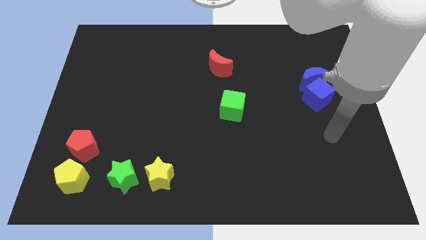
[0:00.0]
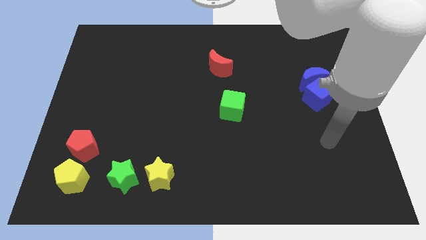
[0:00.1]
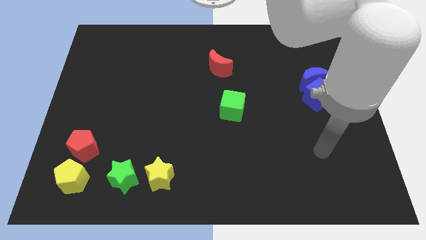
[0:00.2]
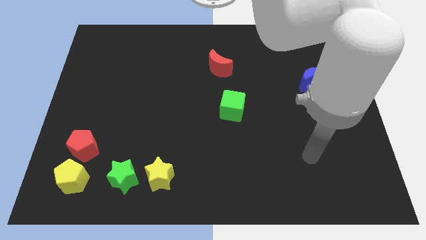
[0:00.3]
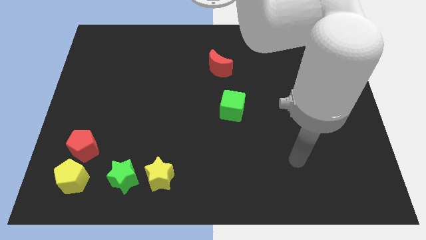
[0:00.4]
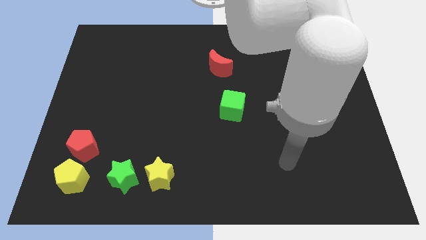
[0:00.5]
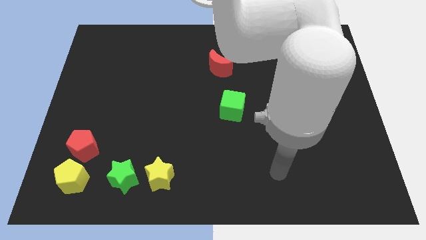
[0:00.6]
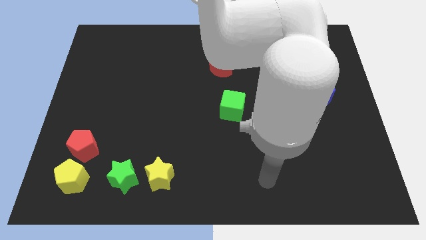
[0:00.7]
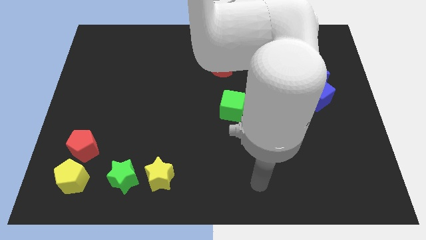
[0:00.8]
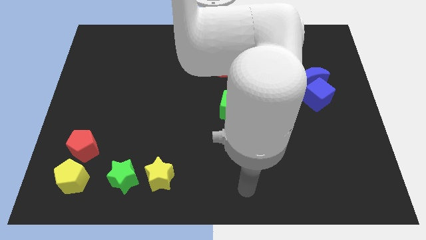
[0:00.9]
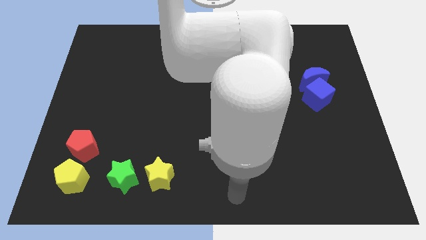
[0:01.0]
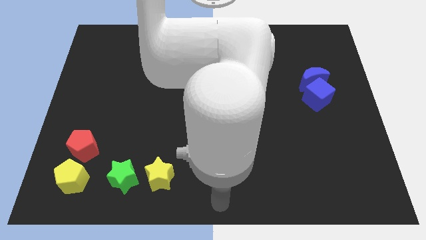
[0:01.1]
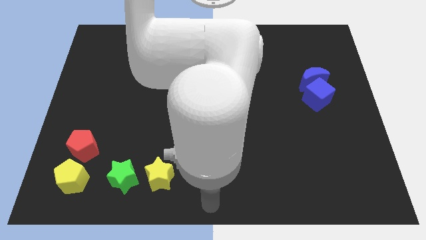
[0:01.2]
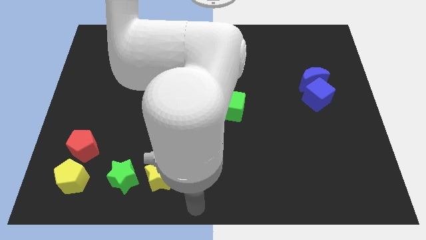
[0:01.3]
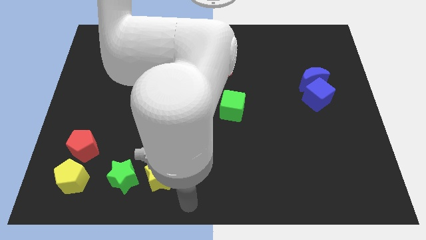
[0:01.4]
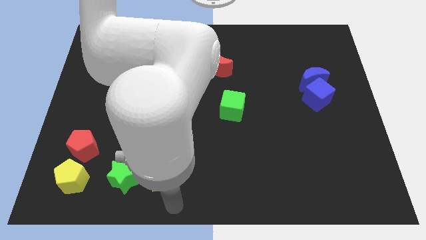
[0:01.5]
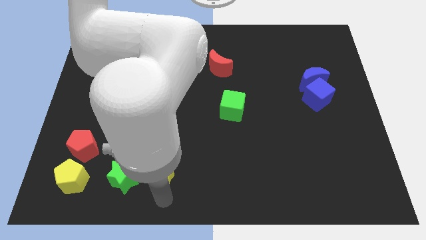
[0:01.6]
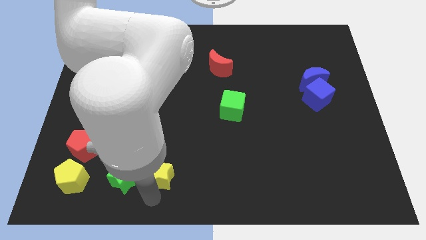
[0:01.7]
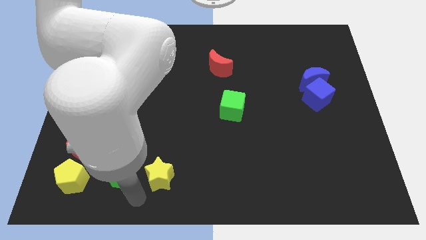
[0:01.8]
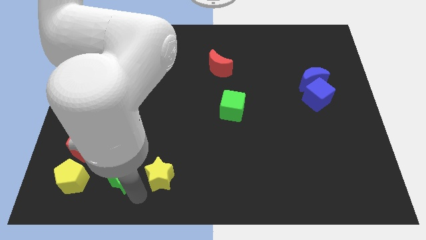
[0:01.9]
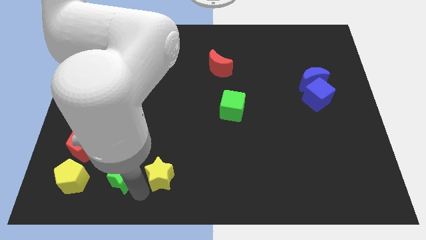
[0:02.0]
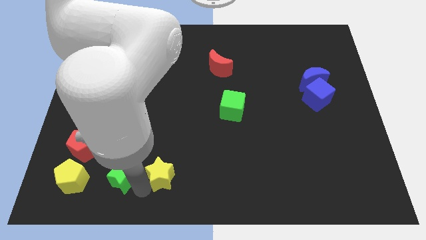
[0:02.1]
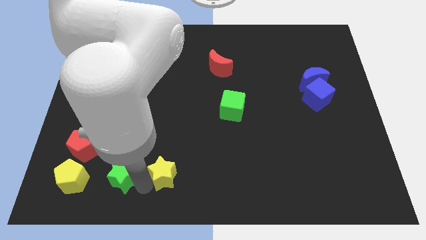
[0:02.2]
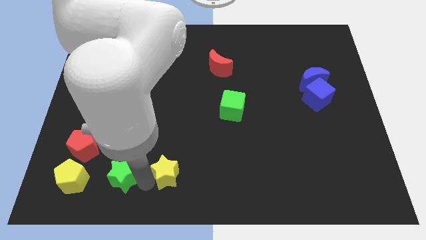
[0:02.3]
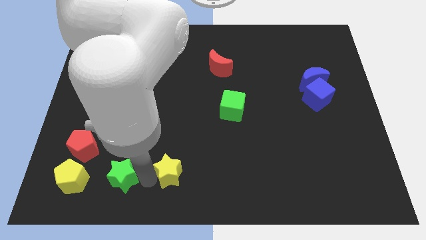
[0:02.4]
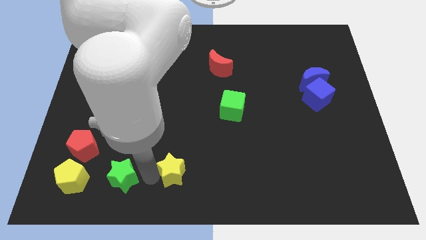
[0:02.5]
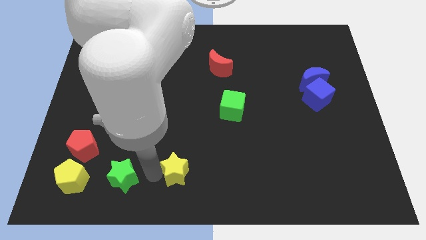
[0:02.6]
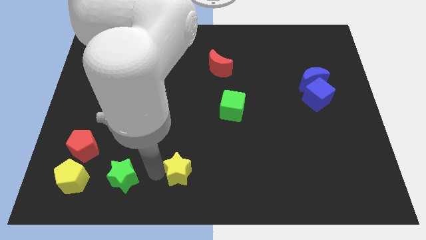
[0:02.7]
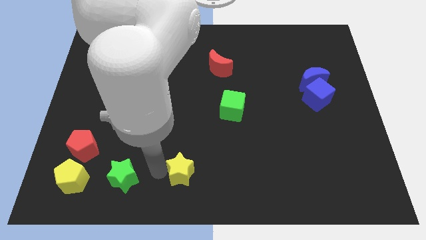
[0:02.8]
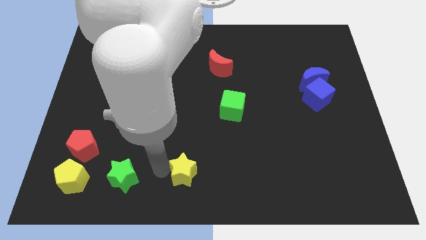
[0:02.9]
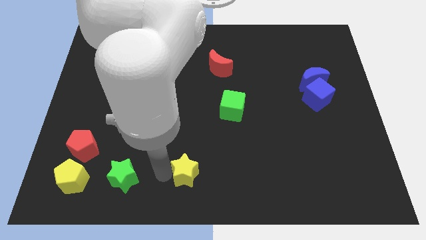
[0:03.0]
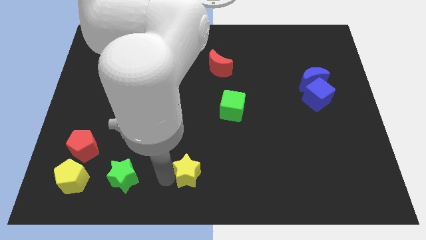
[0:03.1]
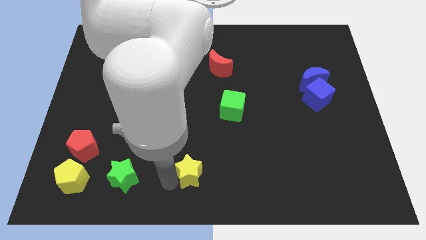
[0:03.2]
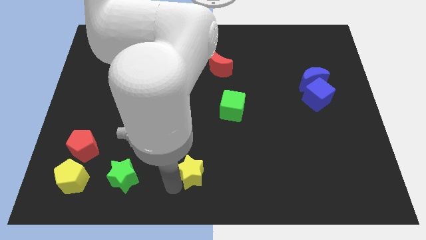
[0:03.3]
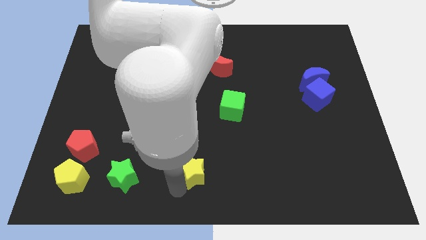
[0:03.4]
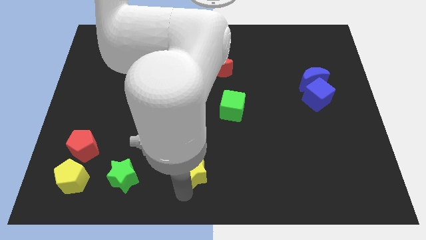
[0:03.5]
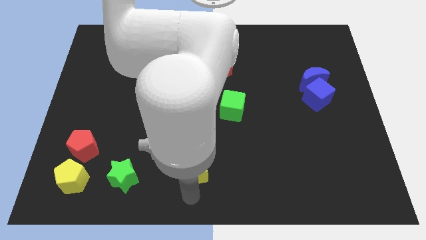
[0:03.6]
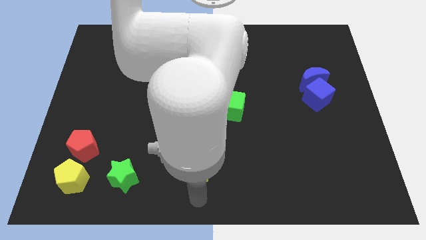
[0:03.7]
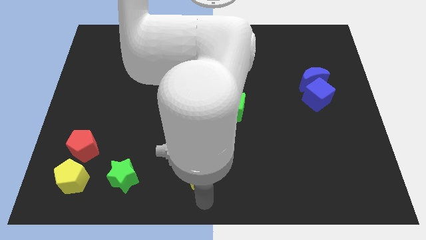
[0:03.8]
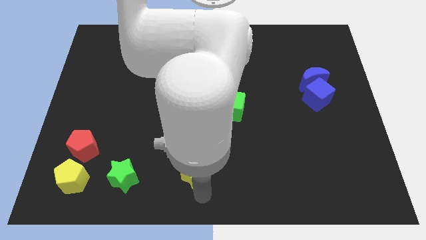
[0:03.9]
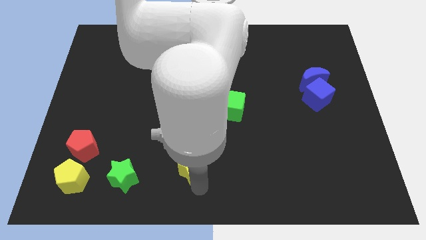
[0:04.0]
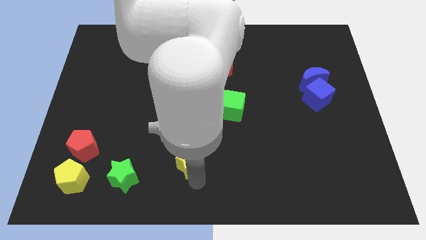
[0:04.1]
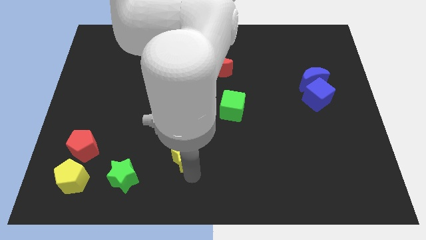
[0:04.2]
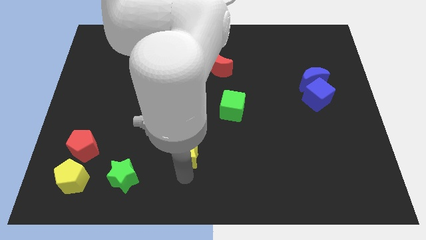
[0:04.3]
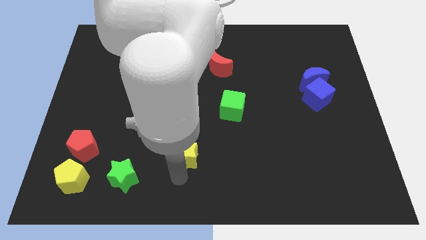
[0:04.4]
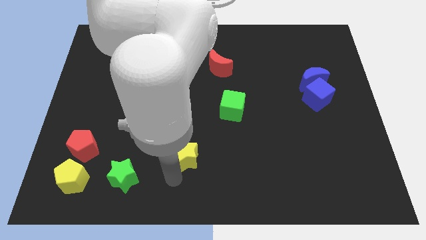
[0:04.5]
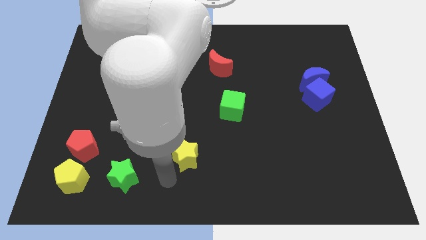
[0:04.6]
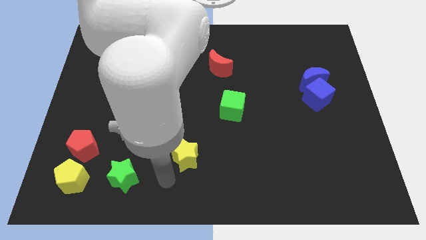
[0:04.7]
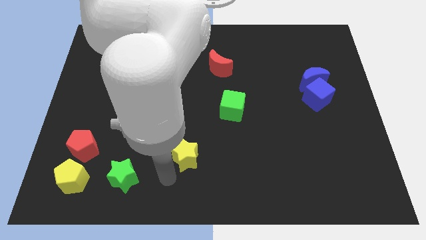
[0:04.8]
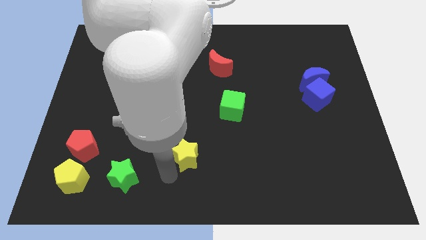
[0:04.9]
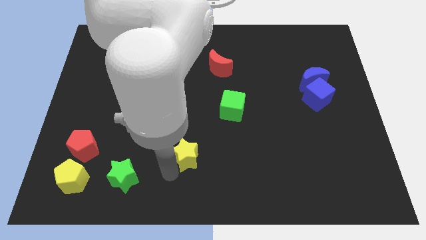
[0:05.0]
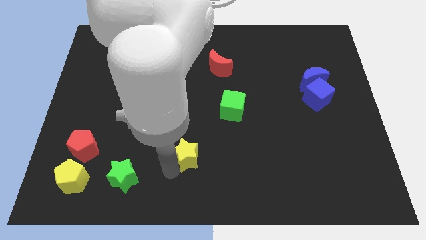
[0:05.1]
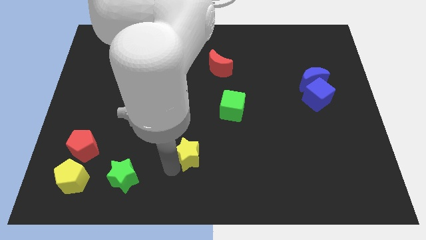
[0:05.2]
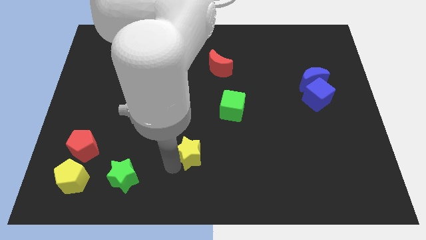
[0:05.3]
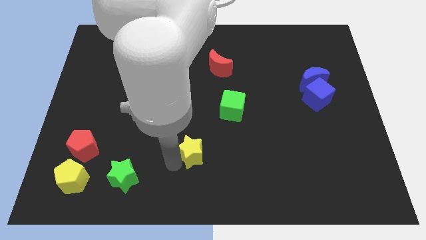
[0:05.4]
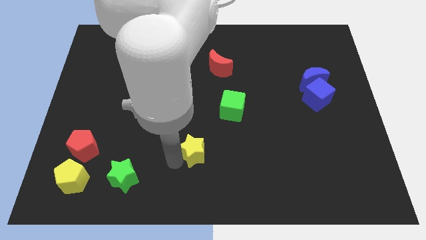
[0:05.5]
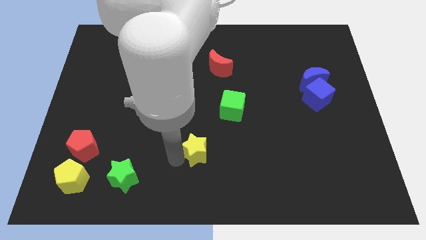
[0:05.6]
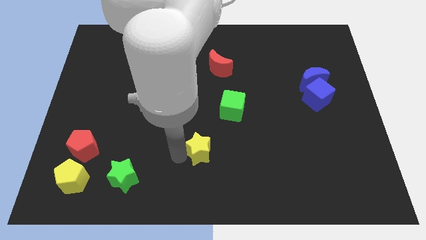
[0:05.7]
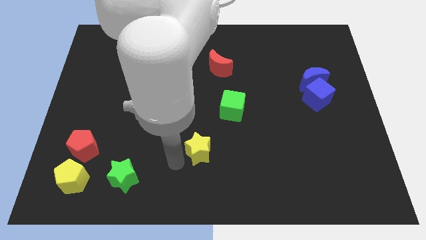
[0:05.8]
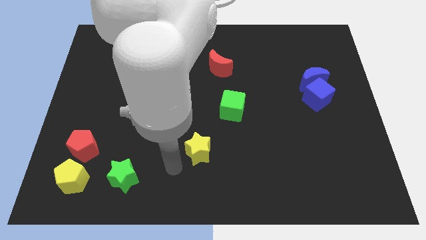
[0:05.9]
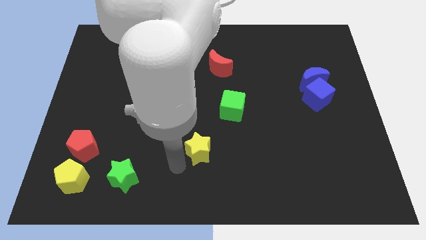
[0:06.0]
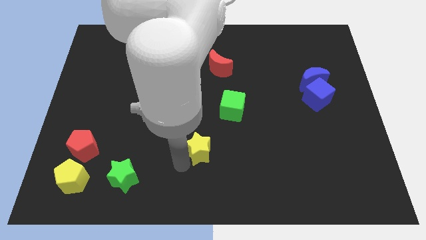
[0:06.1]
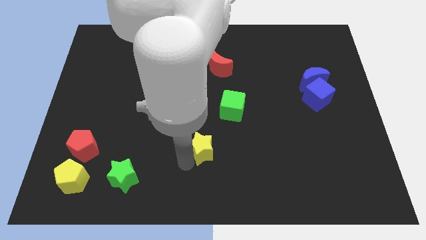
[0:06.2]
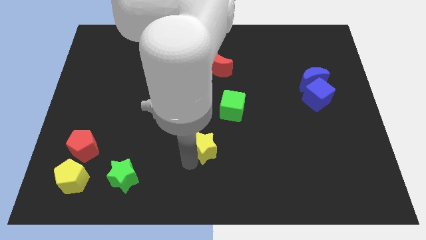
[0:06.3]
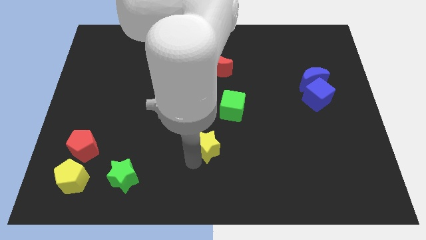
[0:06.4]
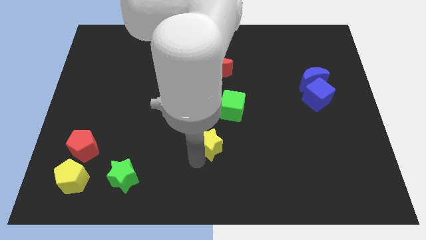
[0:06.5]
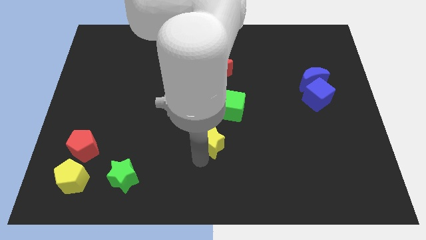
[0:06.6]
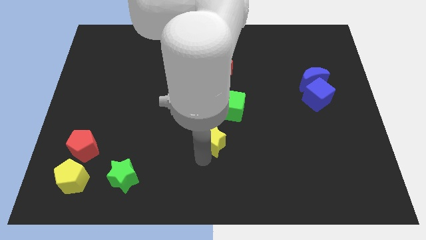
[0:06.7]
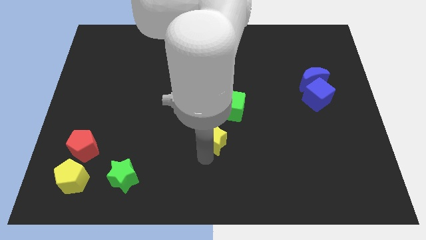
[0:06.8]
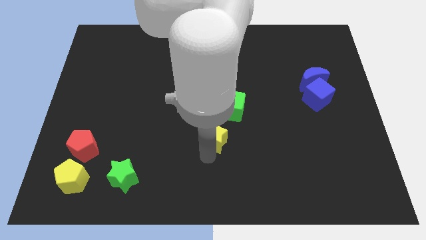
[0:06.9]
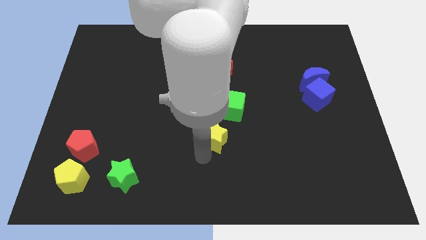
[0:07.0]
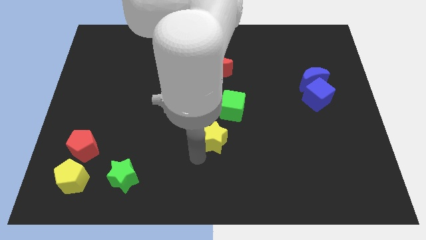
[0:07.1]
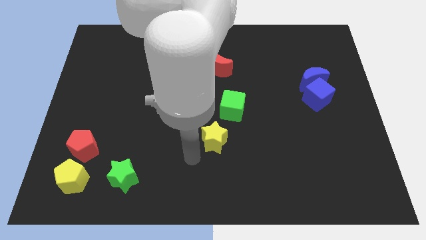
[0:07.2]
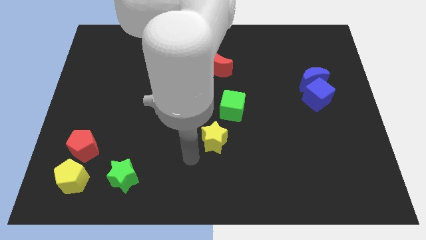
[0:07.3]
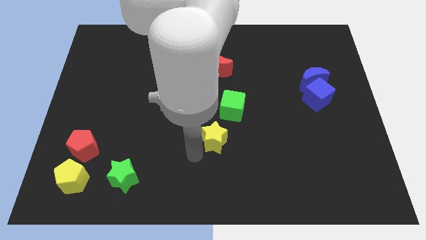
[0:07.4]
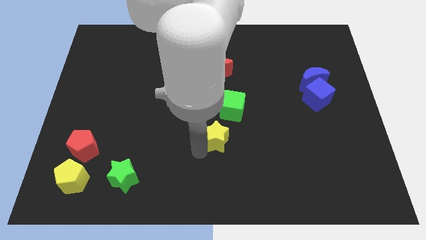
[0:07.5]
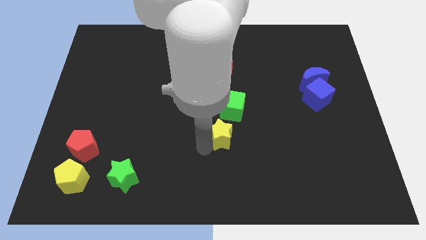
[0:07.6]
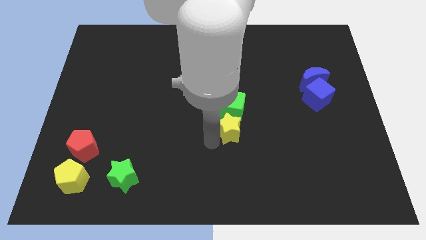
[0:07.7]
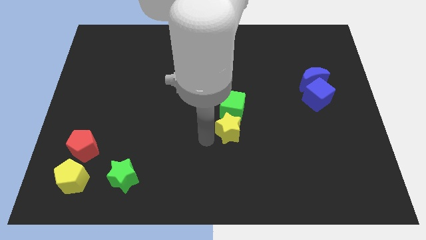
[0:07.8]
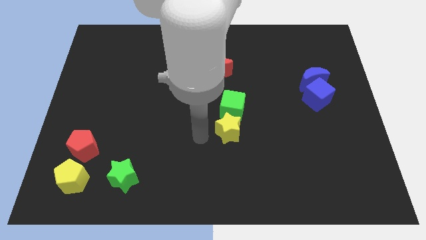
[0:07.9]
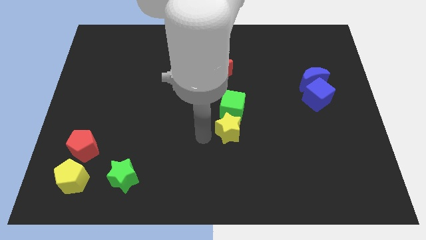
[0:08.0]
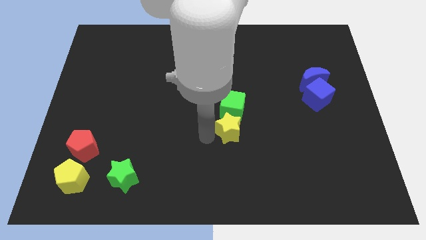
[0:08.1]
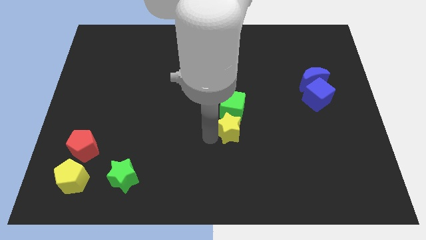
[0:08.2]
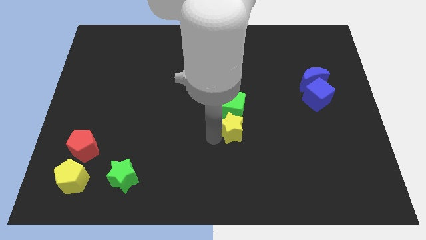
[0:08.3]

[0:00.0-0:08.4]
move the yellow star diagonally down and to the right of the green cube
